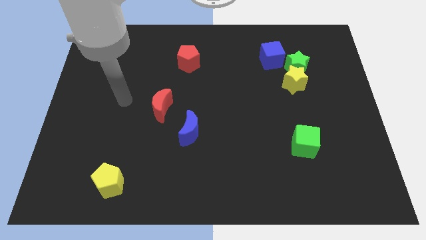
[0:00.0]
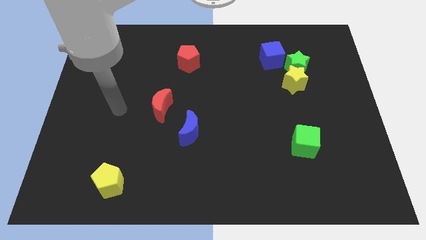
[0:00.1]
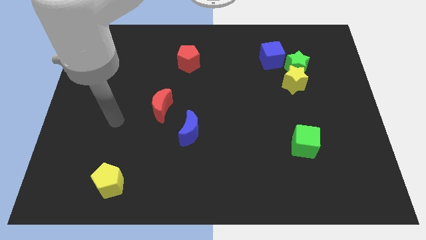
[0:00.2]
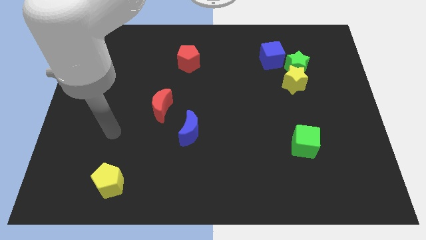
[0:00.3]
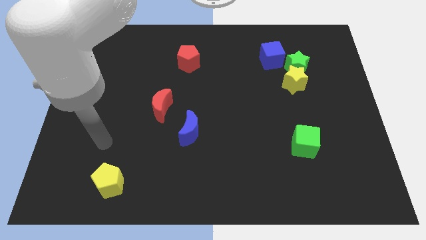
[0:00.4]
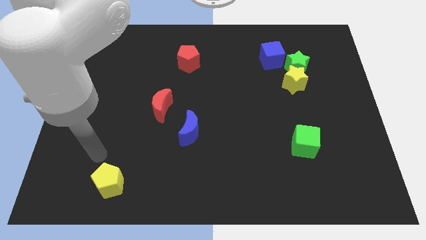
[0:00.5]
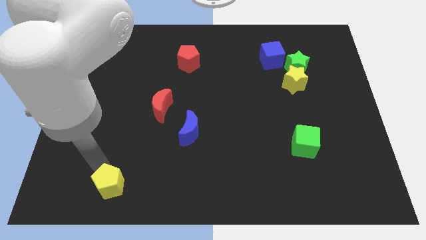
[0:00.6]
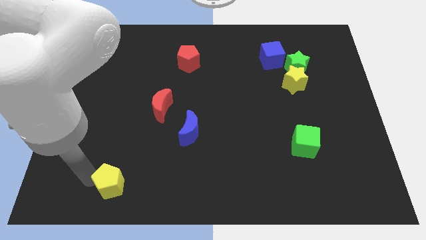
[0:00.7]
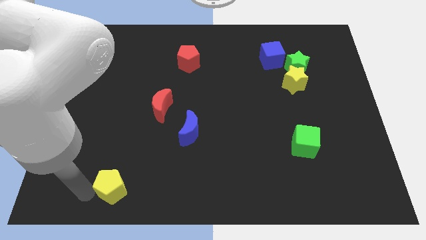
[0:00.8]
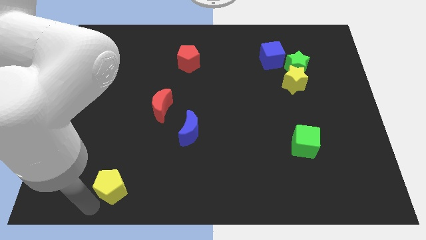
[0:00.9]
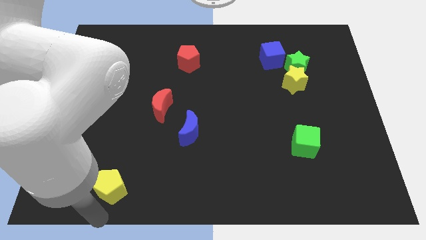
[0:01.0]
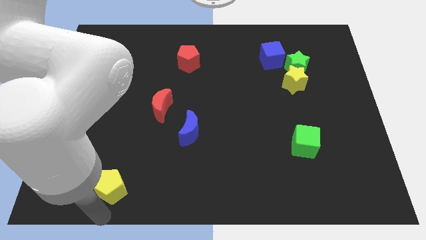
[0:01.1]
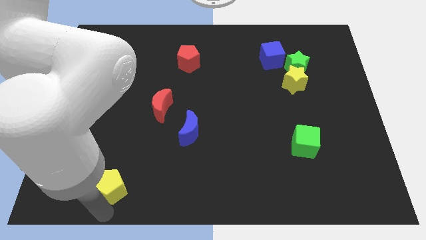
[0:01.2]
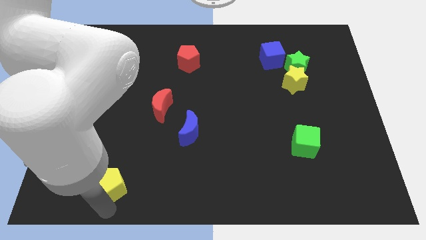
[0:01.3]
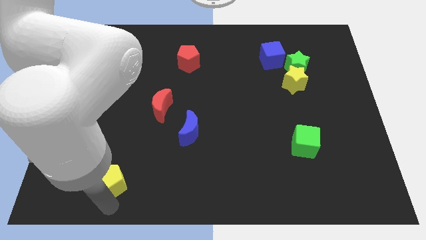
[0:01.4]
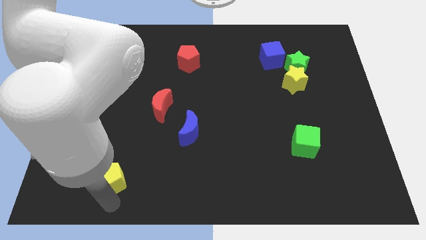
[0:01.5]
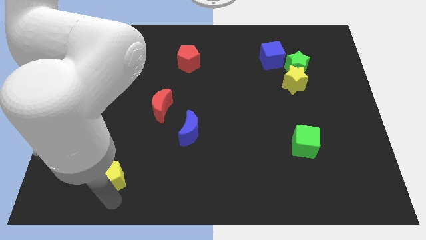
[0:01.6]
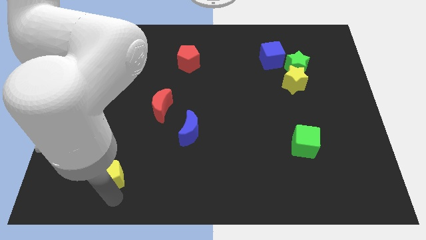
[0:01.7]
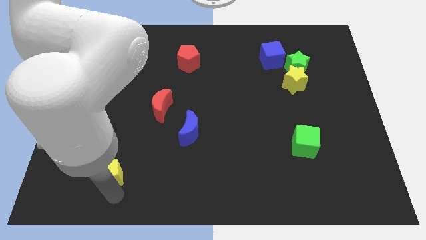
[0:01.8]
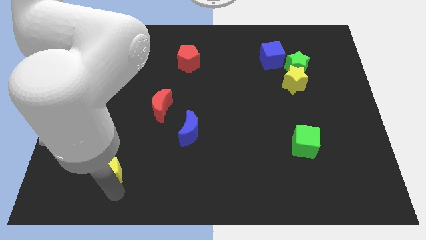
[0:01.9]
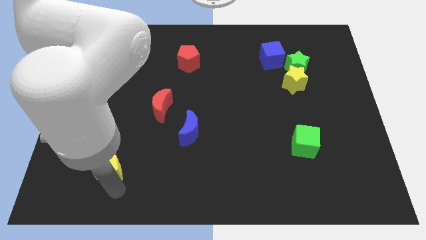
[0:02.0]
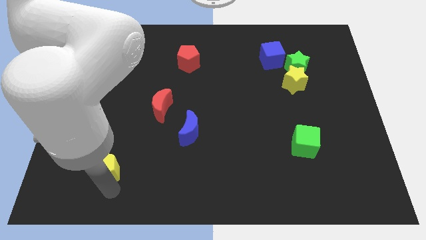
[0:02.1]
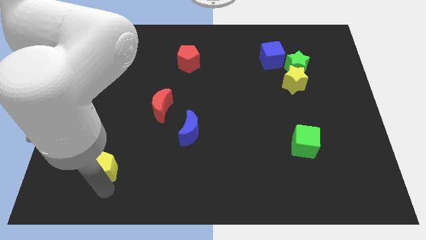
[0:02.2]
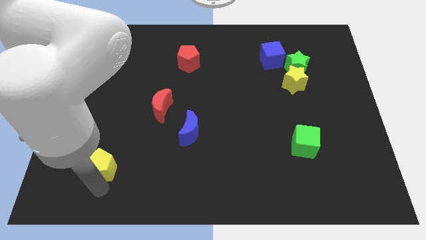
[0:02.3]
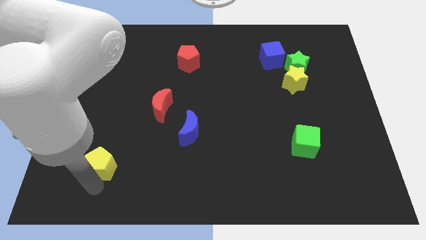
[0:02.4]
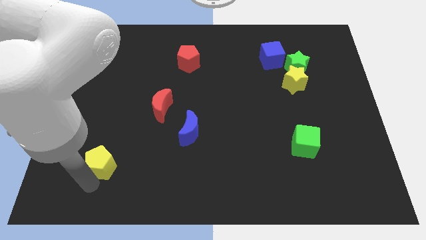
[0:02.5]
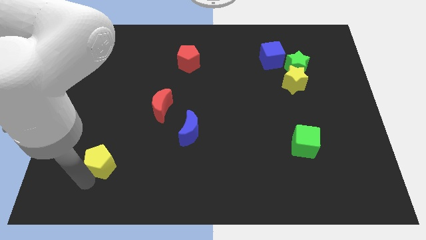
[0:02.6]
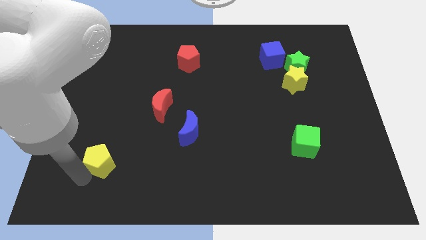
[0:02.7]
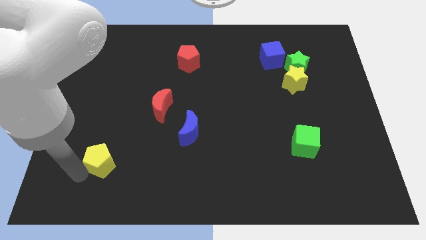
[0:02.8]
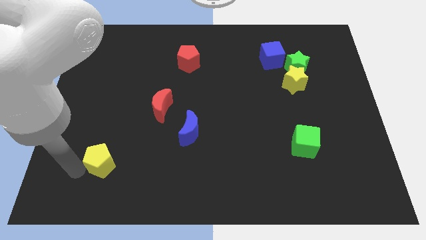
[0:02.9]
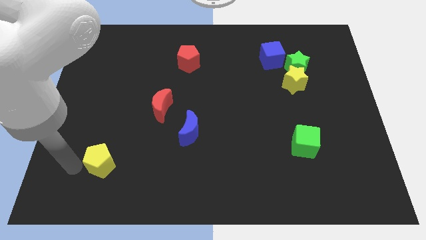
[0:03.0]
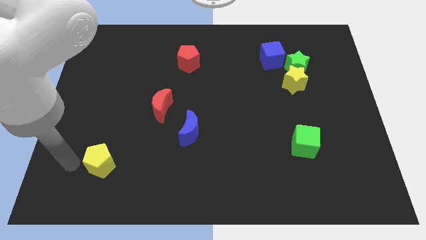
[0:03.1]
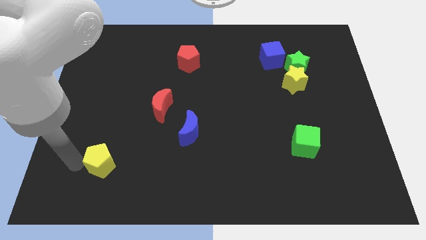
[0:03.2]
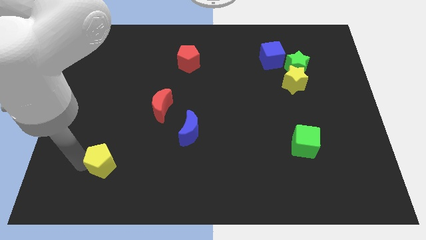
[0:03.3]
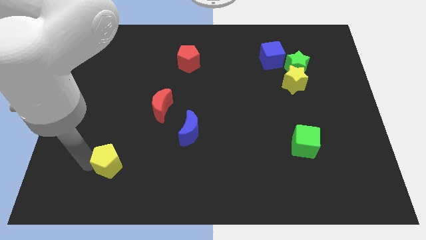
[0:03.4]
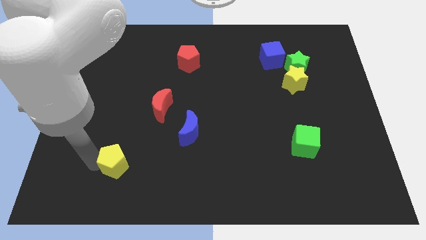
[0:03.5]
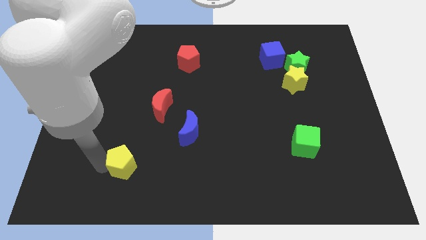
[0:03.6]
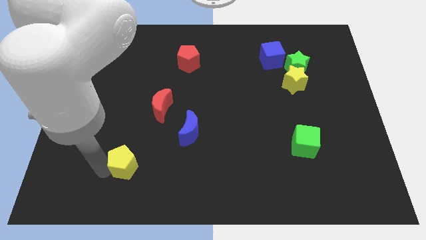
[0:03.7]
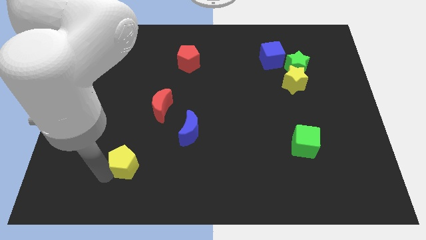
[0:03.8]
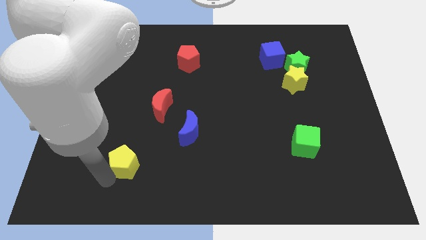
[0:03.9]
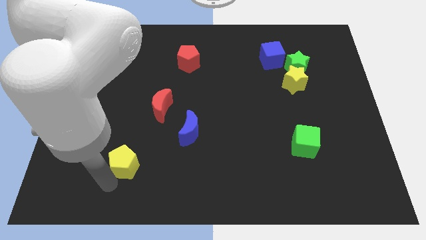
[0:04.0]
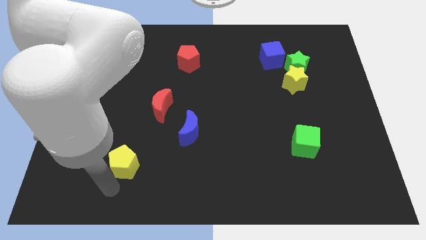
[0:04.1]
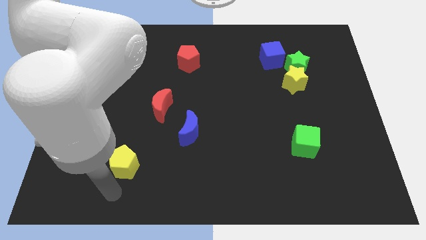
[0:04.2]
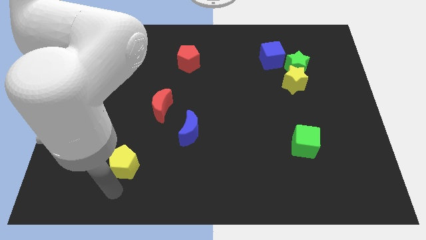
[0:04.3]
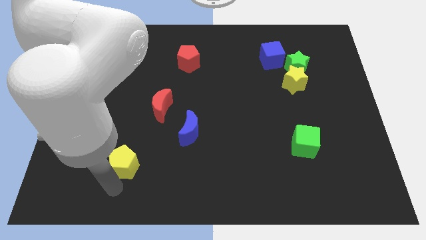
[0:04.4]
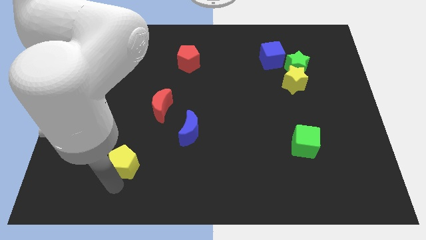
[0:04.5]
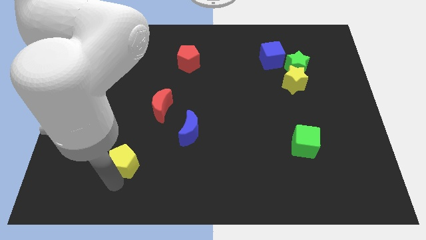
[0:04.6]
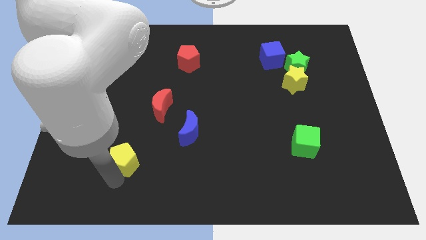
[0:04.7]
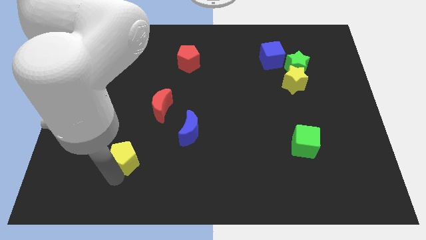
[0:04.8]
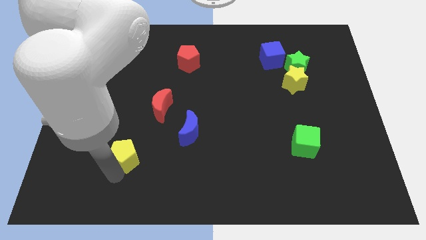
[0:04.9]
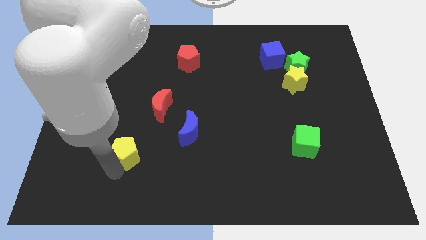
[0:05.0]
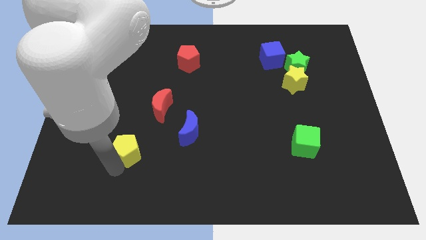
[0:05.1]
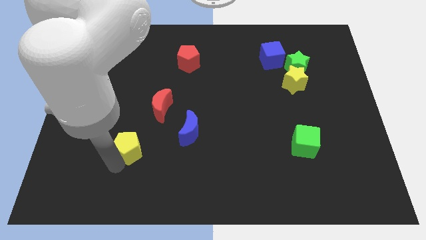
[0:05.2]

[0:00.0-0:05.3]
push the yellow pentagon just left of the blue moon

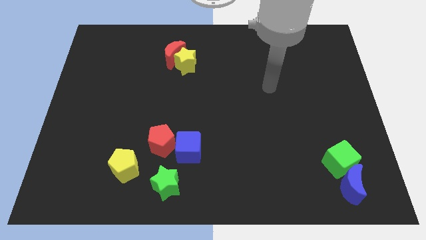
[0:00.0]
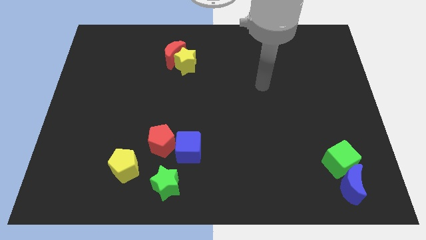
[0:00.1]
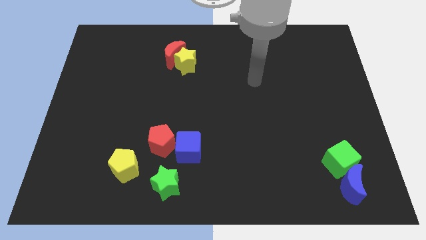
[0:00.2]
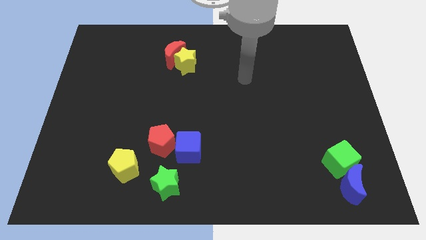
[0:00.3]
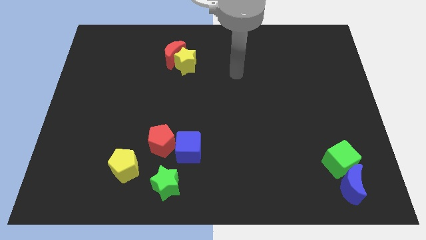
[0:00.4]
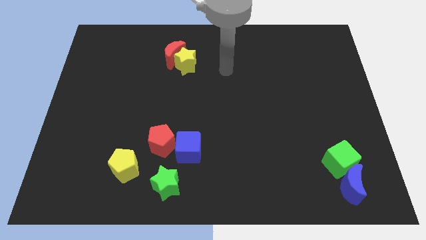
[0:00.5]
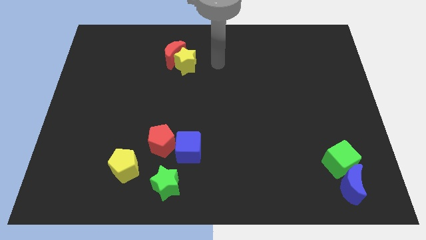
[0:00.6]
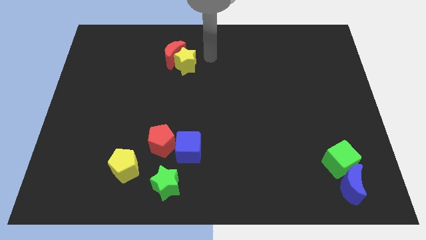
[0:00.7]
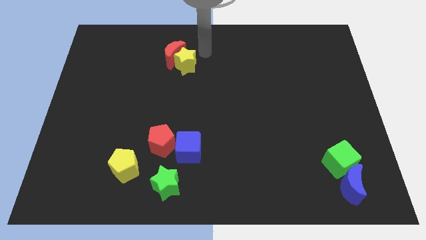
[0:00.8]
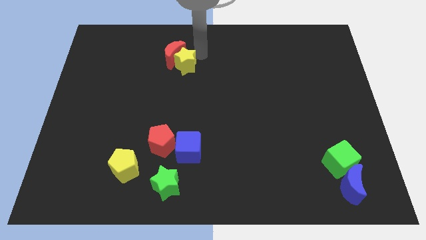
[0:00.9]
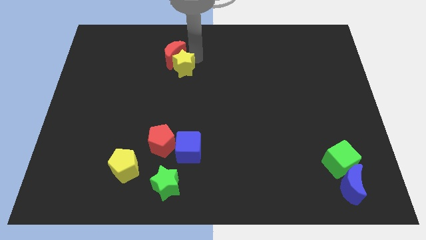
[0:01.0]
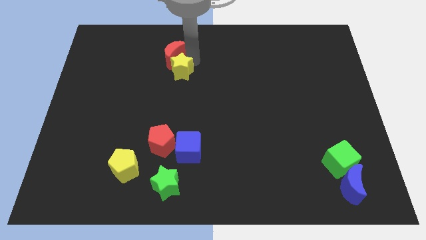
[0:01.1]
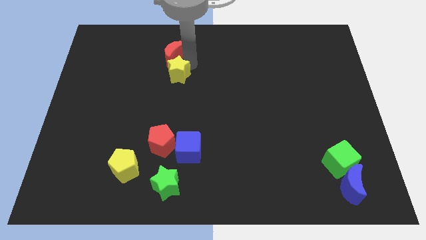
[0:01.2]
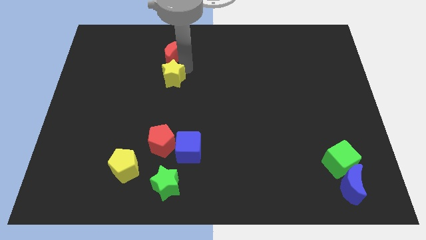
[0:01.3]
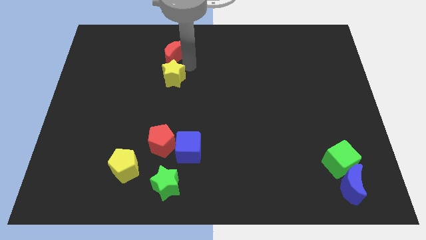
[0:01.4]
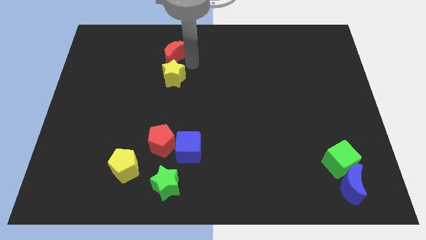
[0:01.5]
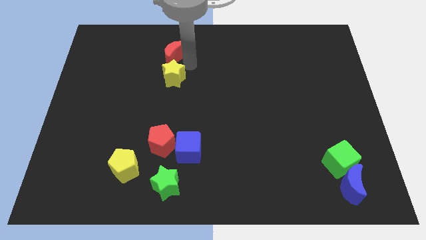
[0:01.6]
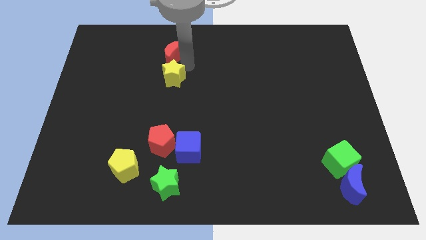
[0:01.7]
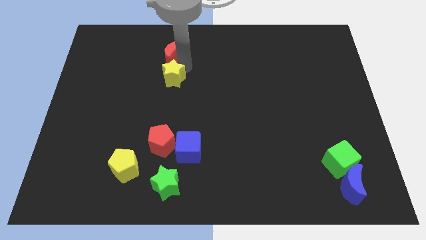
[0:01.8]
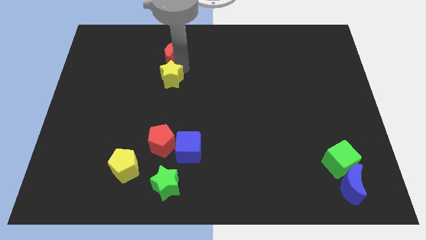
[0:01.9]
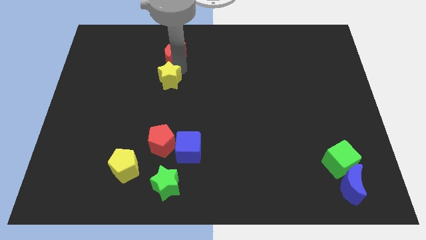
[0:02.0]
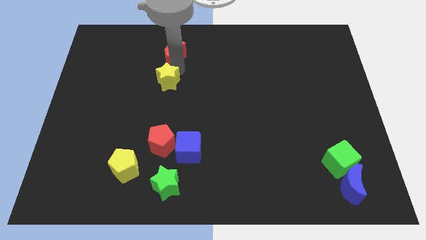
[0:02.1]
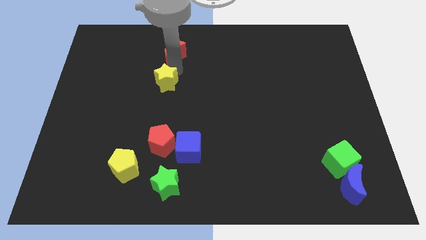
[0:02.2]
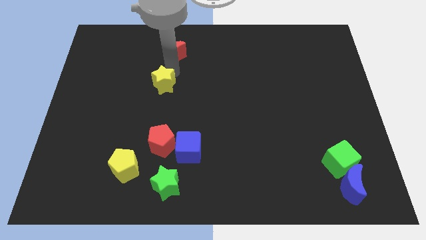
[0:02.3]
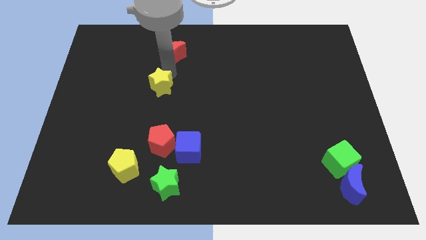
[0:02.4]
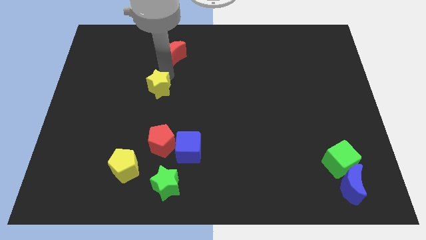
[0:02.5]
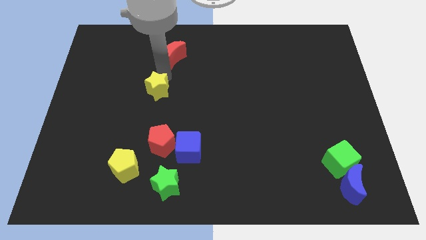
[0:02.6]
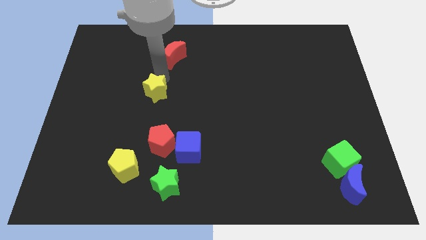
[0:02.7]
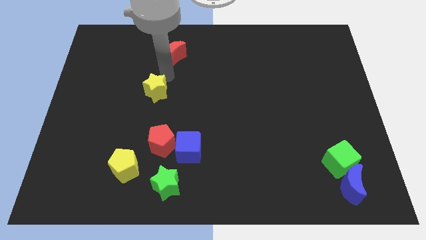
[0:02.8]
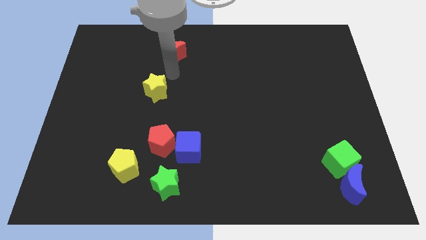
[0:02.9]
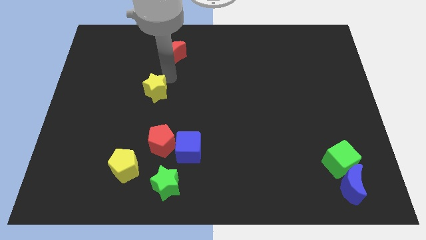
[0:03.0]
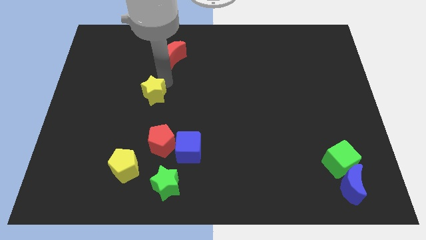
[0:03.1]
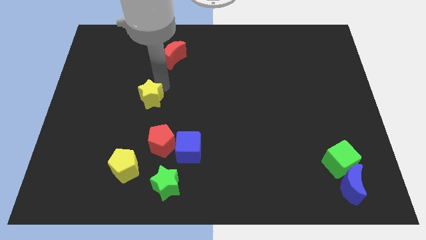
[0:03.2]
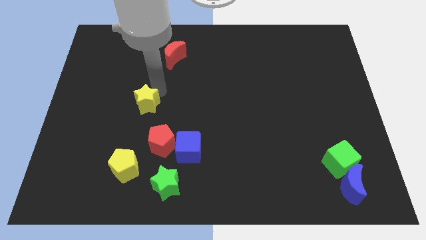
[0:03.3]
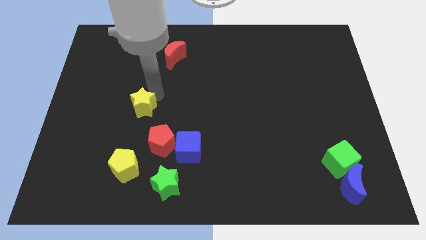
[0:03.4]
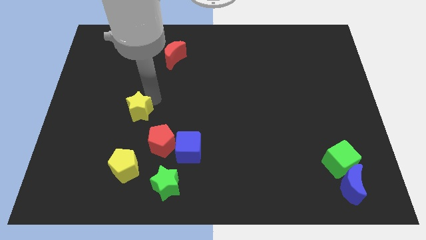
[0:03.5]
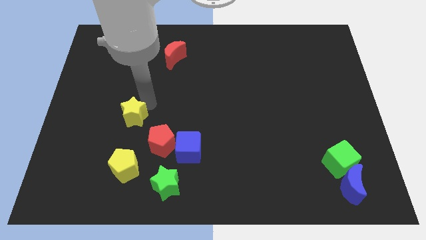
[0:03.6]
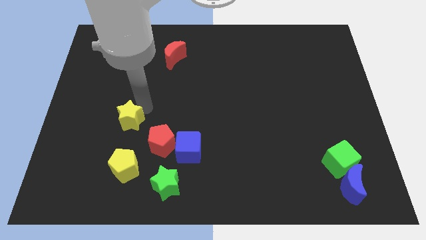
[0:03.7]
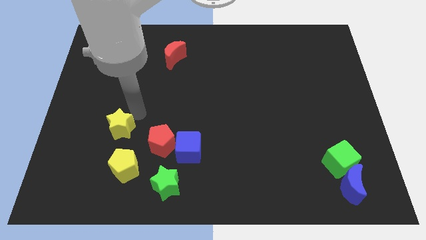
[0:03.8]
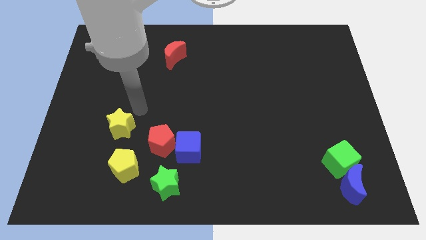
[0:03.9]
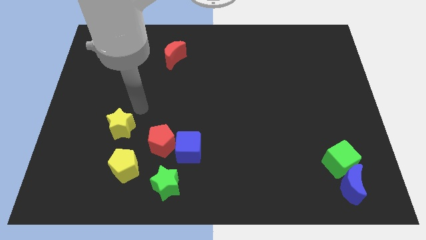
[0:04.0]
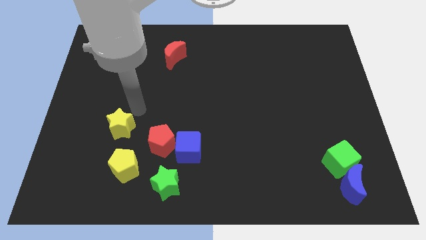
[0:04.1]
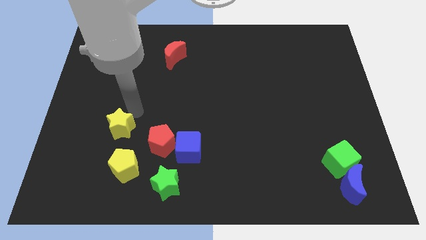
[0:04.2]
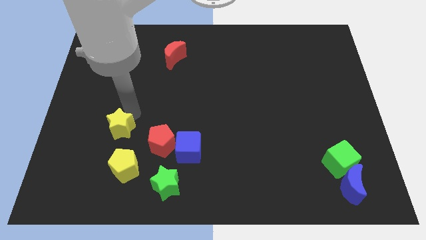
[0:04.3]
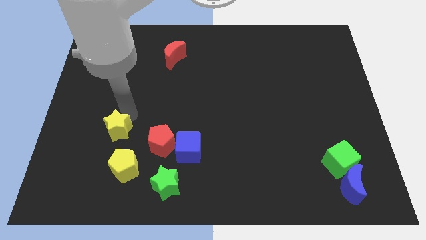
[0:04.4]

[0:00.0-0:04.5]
push the yellow star to the top left of the yellow pentagon
